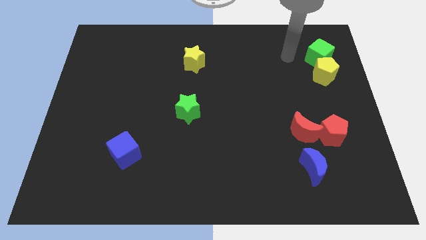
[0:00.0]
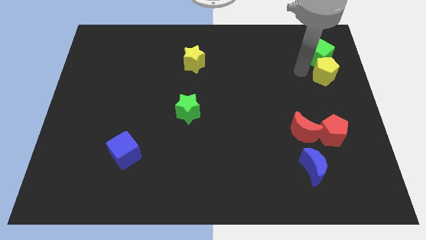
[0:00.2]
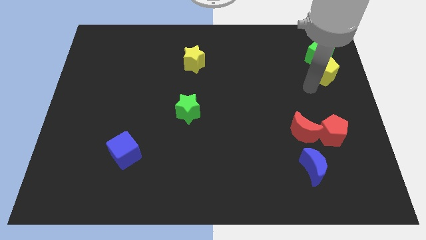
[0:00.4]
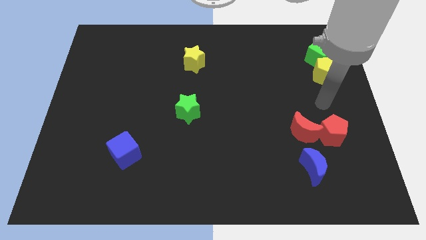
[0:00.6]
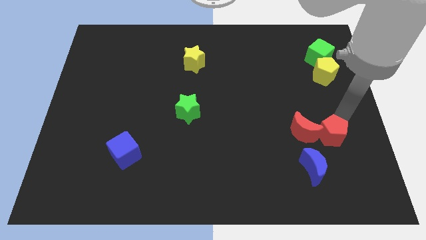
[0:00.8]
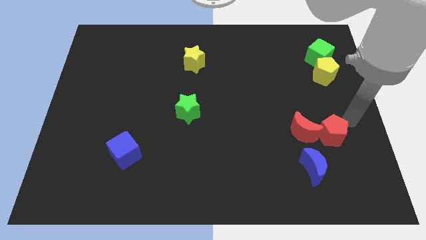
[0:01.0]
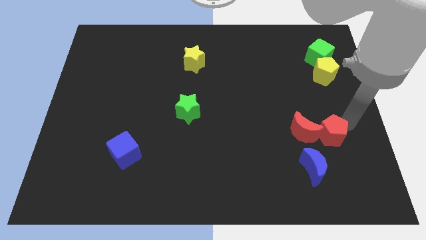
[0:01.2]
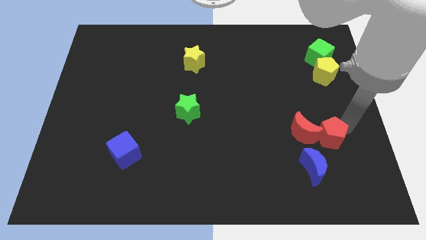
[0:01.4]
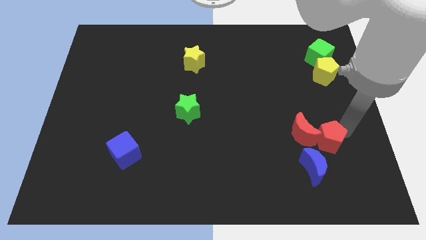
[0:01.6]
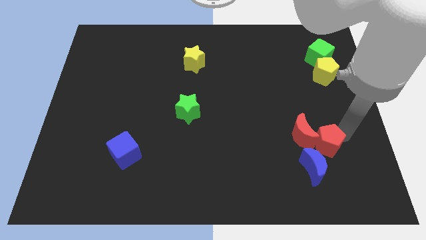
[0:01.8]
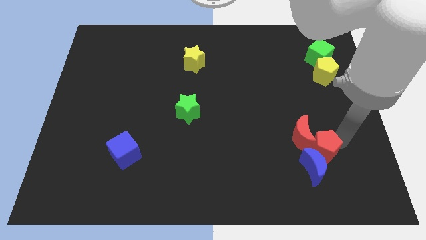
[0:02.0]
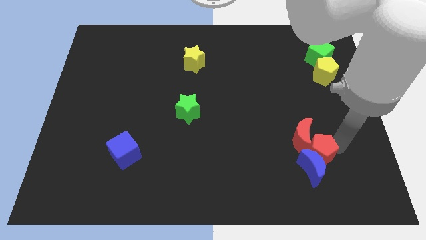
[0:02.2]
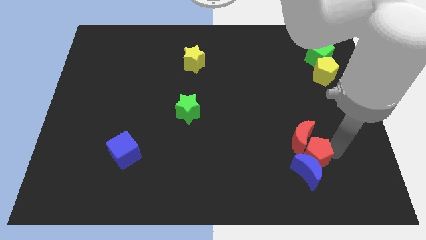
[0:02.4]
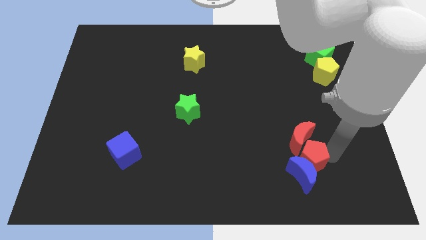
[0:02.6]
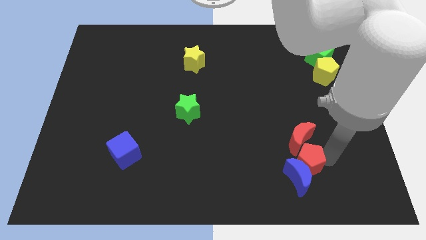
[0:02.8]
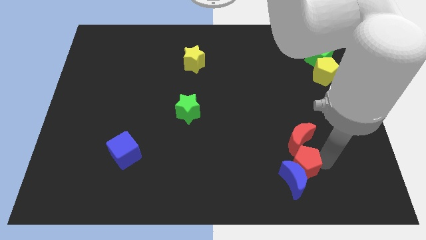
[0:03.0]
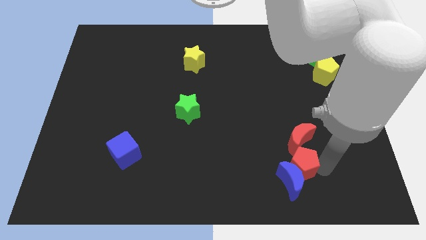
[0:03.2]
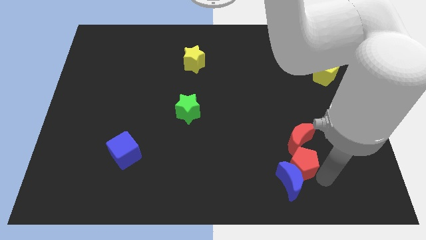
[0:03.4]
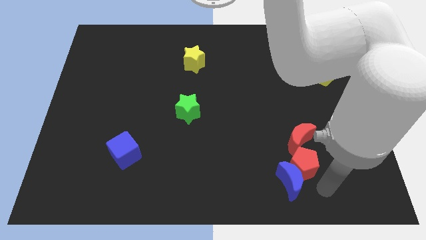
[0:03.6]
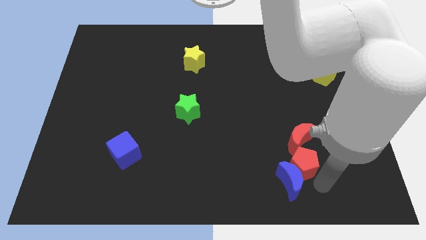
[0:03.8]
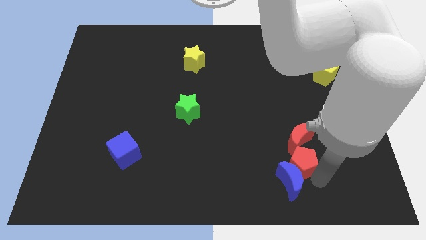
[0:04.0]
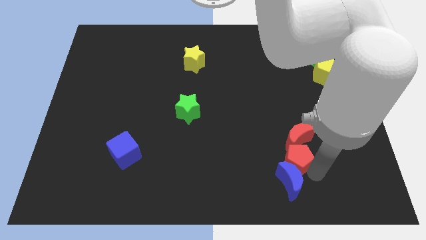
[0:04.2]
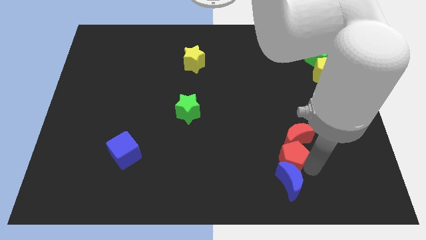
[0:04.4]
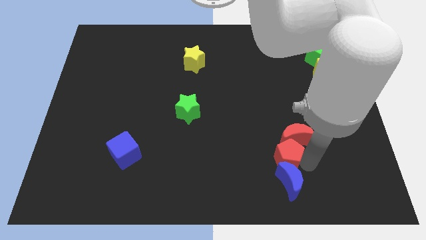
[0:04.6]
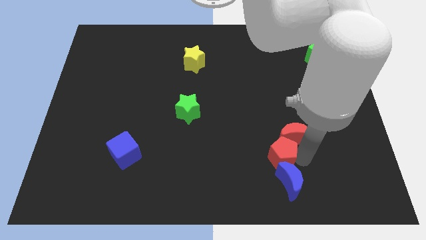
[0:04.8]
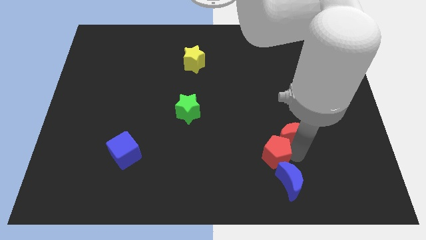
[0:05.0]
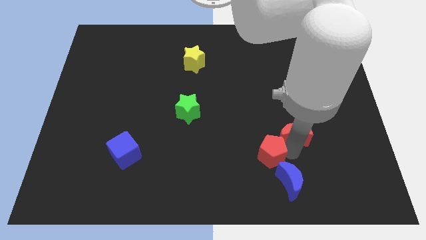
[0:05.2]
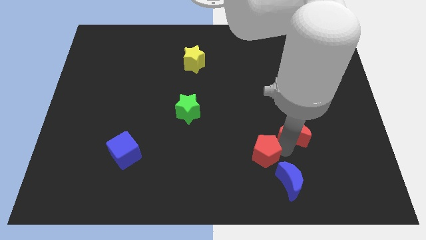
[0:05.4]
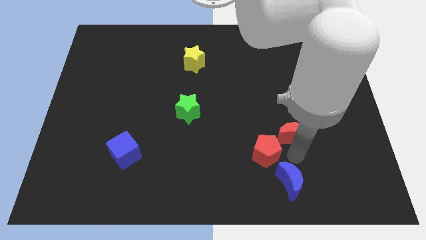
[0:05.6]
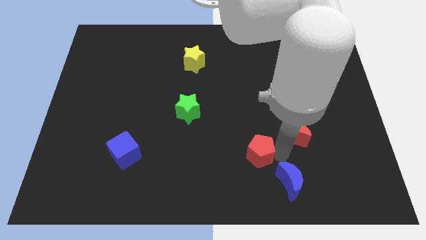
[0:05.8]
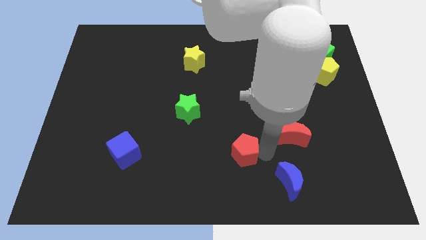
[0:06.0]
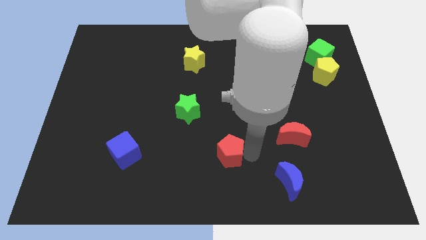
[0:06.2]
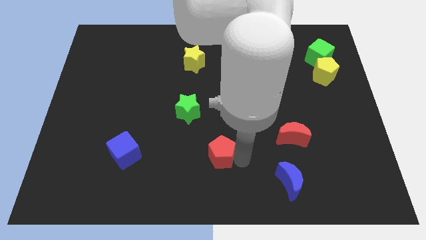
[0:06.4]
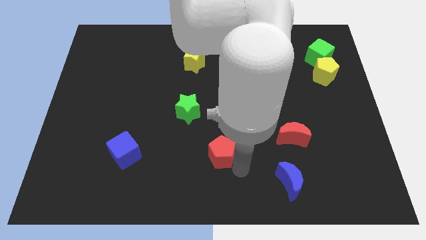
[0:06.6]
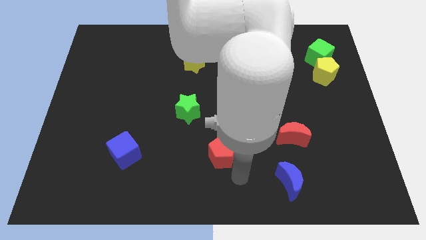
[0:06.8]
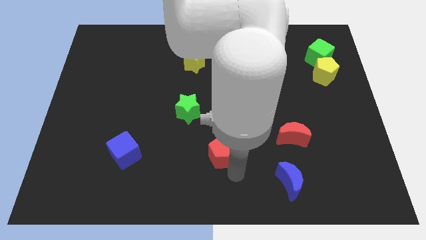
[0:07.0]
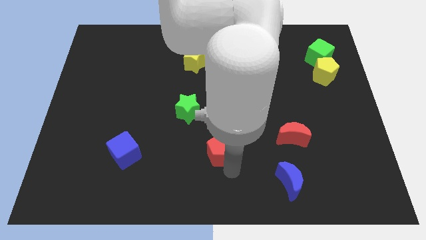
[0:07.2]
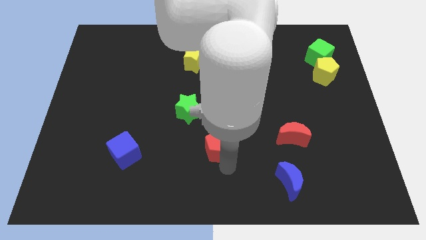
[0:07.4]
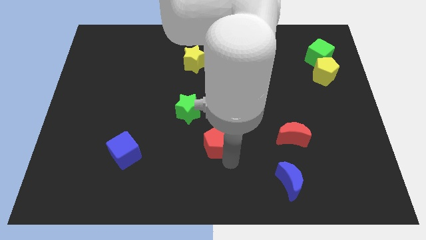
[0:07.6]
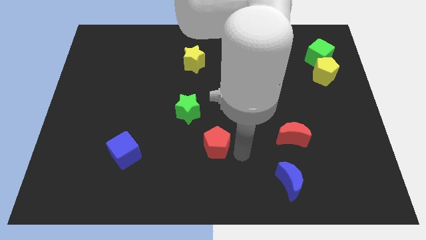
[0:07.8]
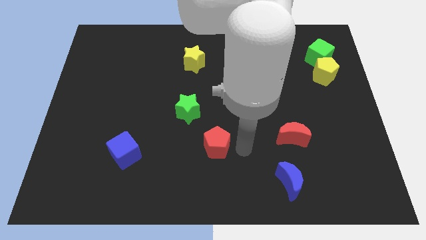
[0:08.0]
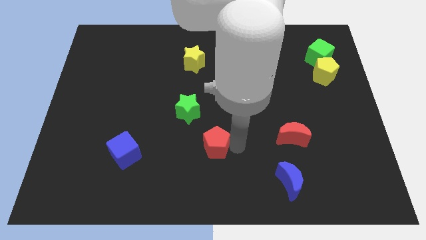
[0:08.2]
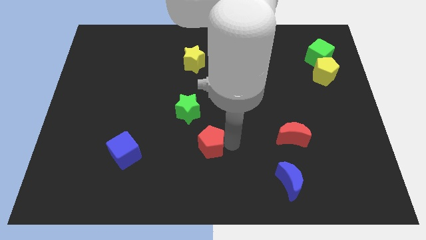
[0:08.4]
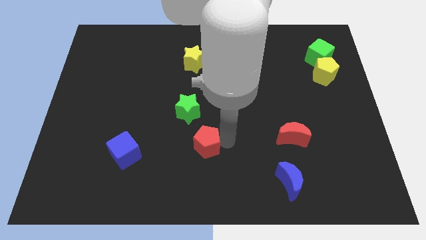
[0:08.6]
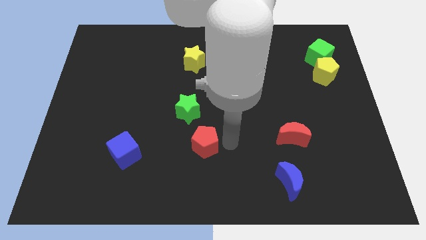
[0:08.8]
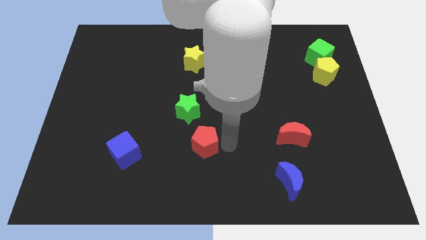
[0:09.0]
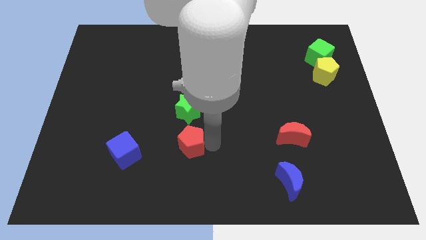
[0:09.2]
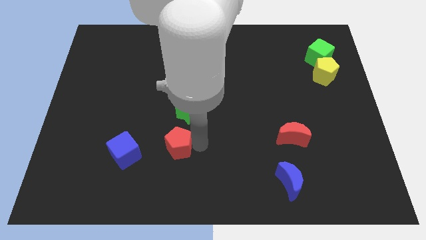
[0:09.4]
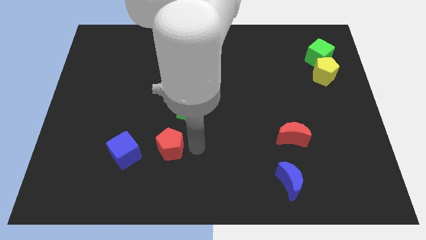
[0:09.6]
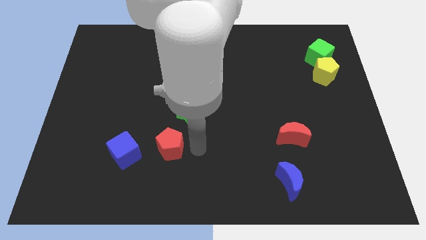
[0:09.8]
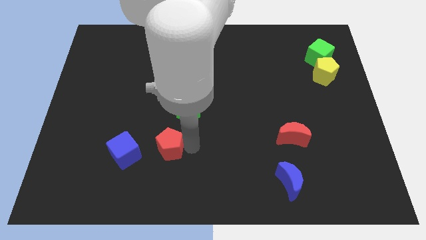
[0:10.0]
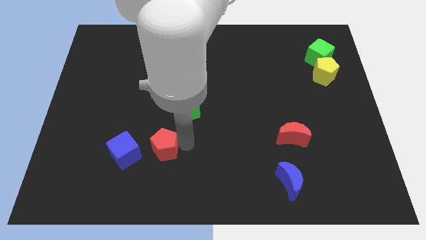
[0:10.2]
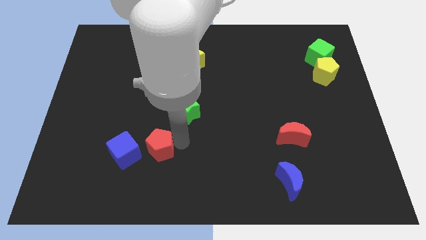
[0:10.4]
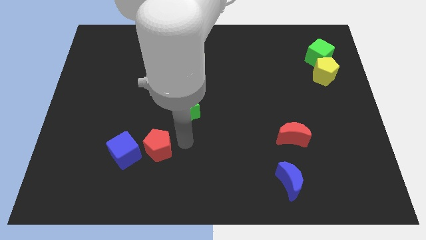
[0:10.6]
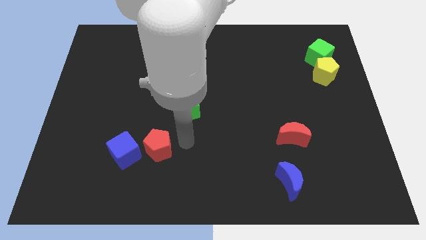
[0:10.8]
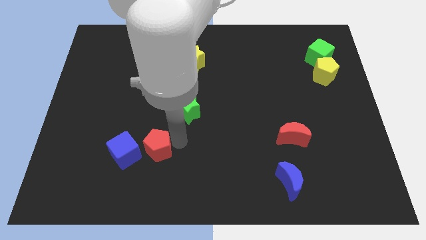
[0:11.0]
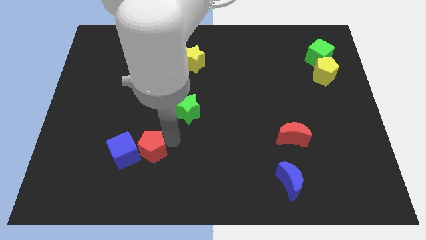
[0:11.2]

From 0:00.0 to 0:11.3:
push the red pentagon towards the blue cube

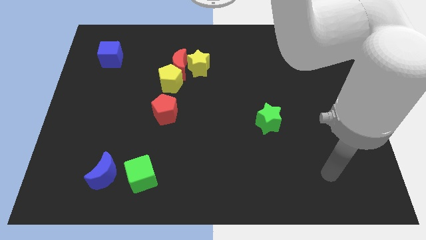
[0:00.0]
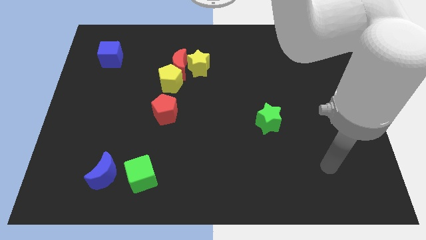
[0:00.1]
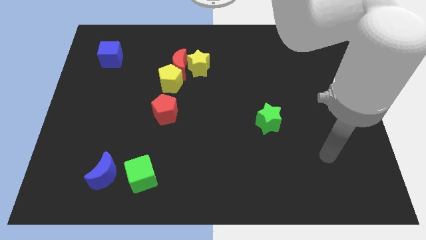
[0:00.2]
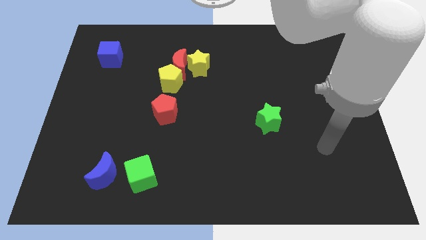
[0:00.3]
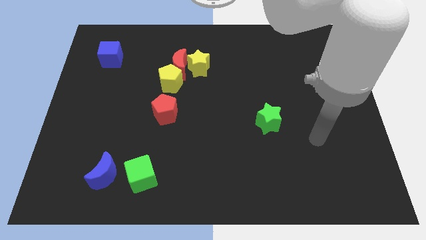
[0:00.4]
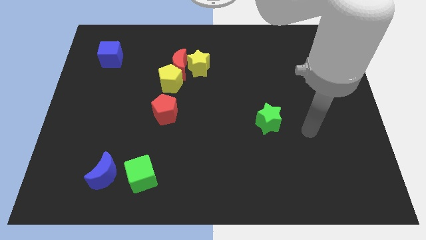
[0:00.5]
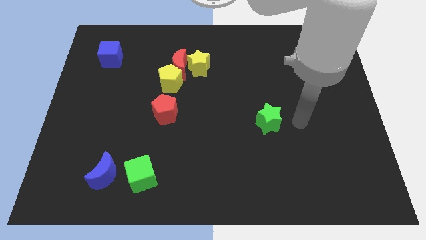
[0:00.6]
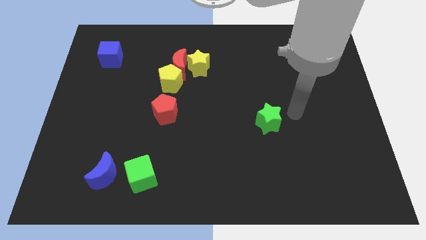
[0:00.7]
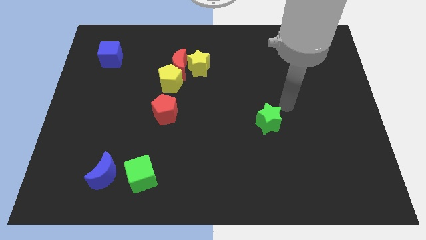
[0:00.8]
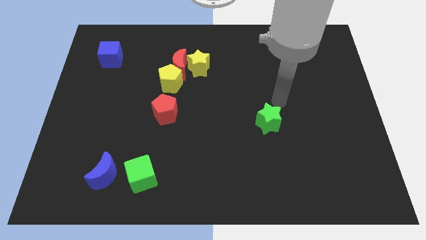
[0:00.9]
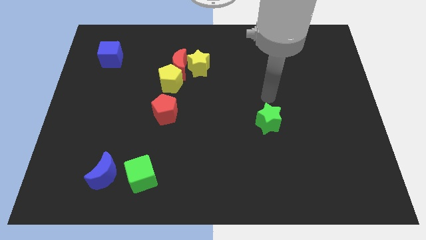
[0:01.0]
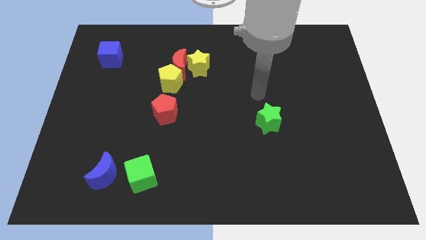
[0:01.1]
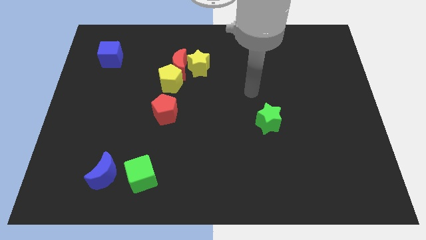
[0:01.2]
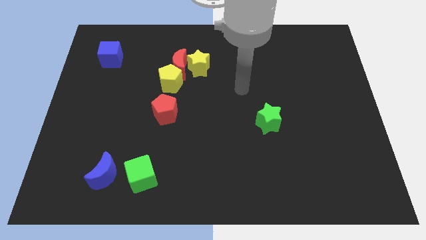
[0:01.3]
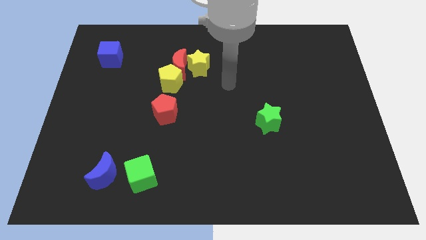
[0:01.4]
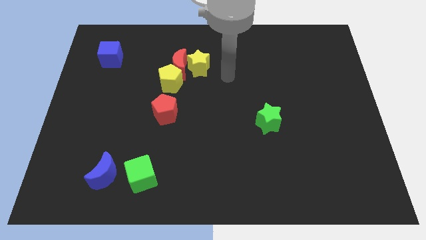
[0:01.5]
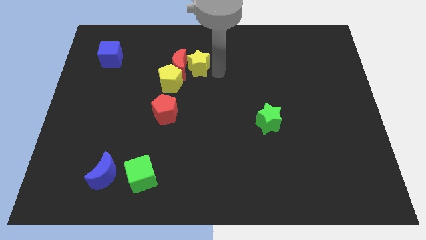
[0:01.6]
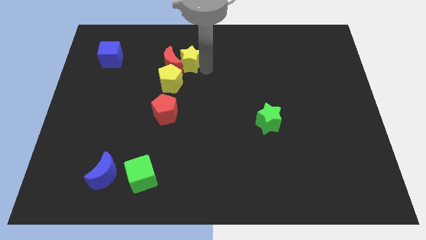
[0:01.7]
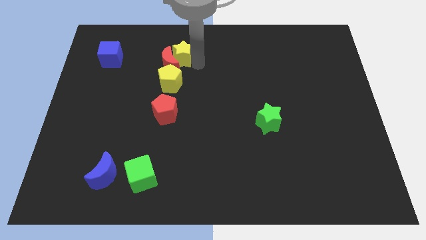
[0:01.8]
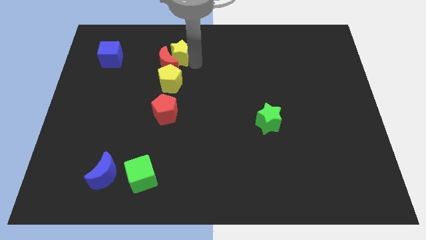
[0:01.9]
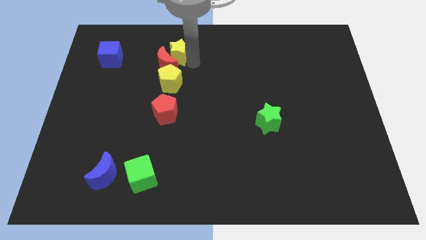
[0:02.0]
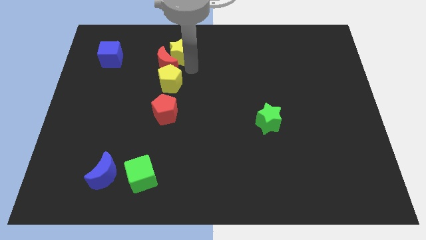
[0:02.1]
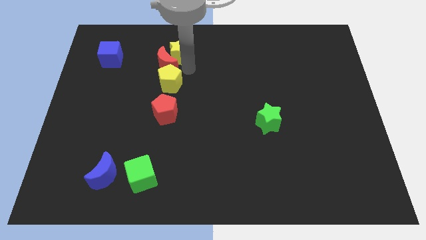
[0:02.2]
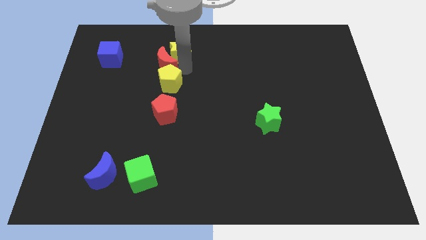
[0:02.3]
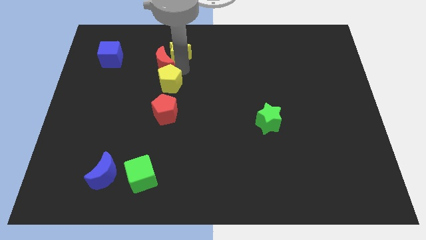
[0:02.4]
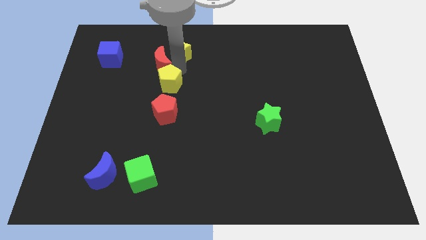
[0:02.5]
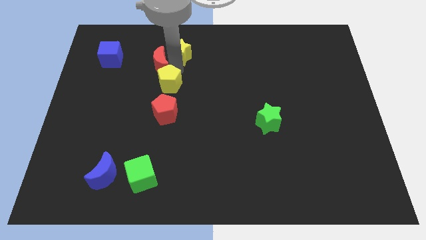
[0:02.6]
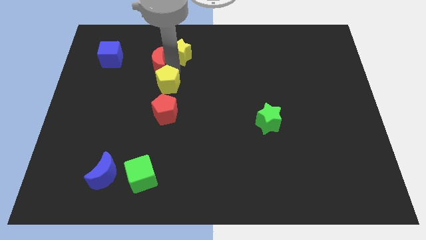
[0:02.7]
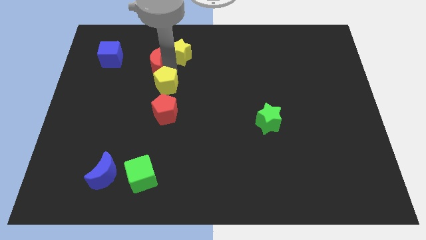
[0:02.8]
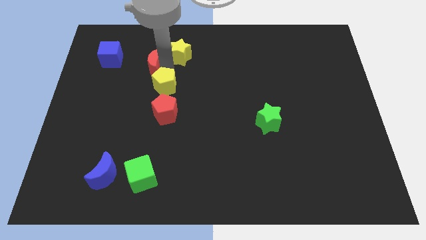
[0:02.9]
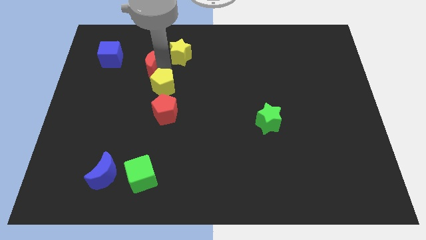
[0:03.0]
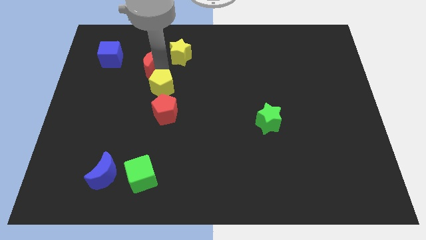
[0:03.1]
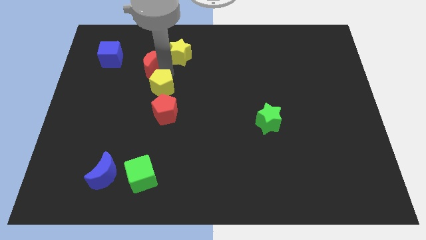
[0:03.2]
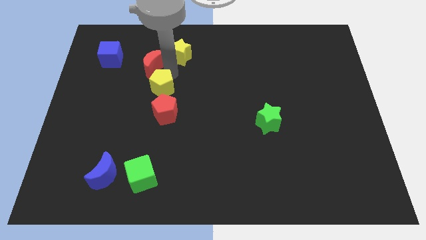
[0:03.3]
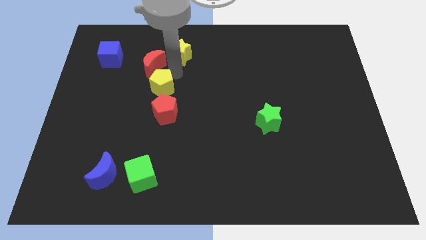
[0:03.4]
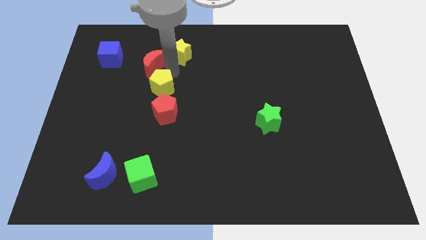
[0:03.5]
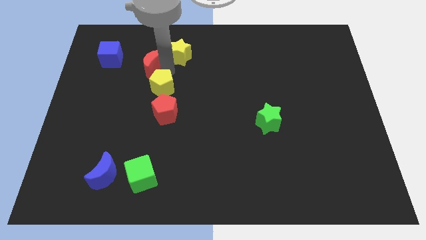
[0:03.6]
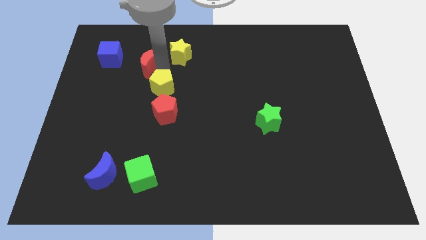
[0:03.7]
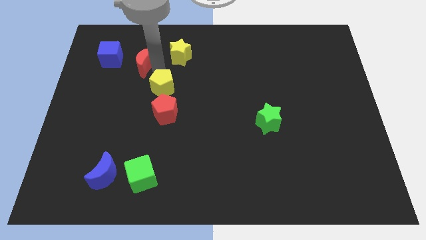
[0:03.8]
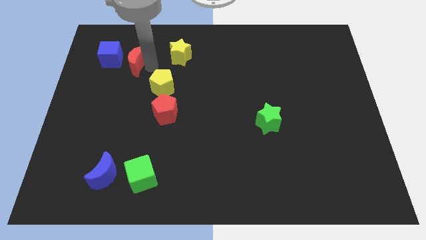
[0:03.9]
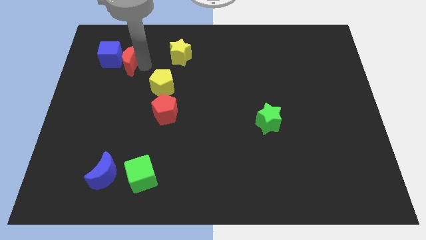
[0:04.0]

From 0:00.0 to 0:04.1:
slide the red moon close to the blue cube
